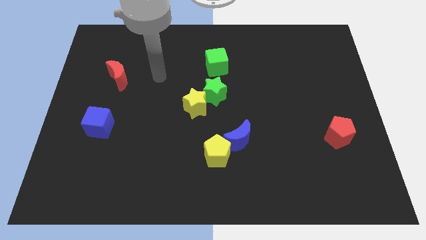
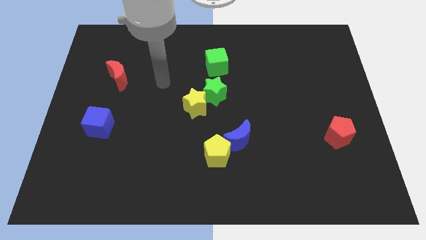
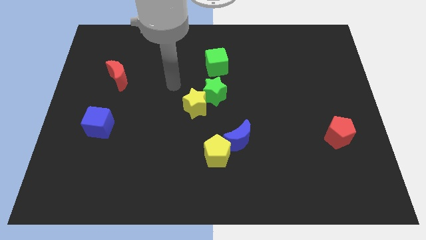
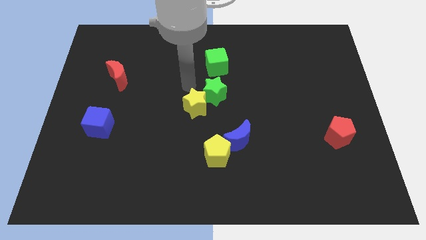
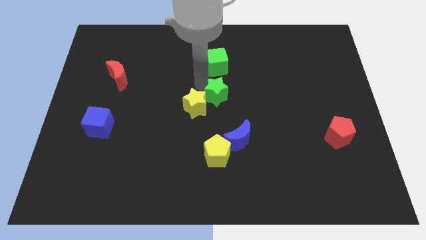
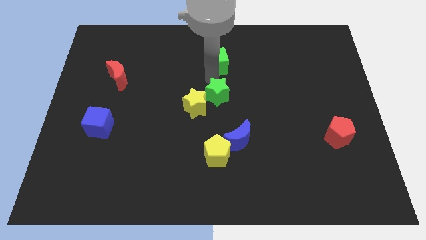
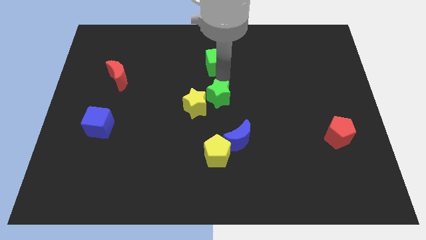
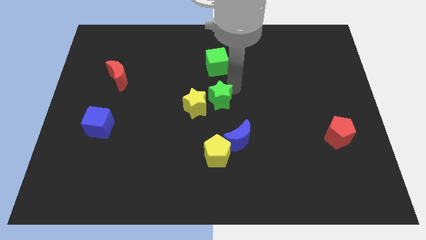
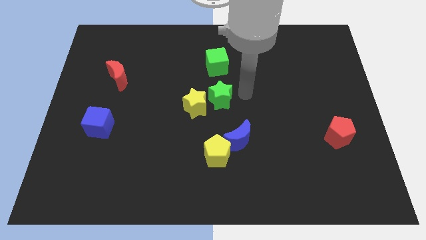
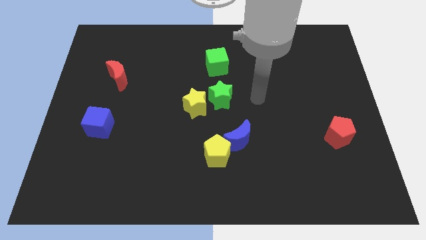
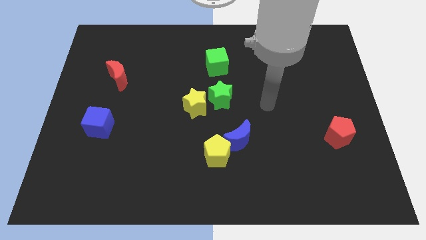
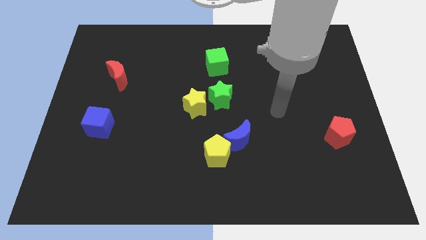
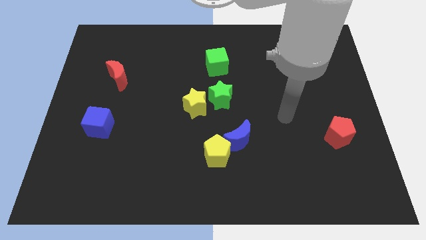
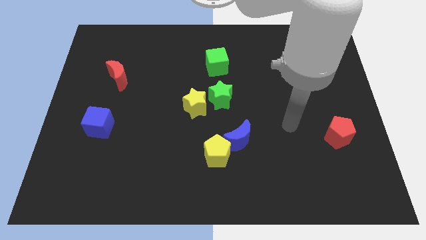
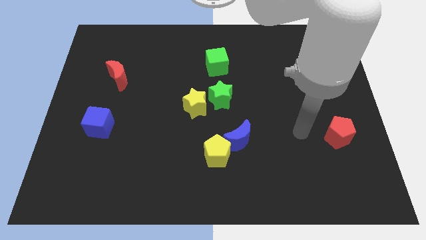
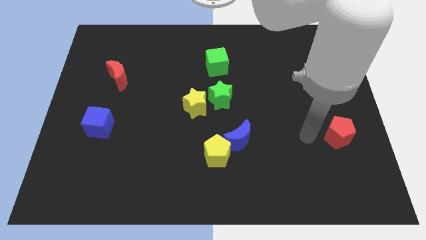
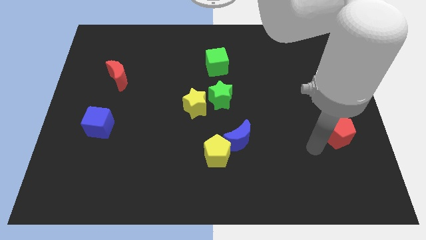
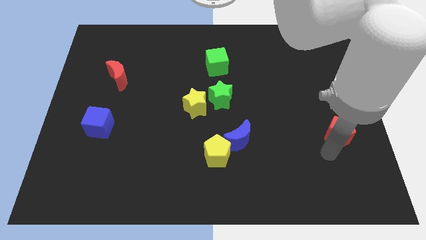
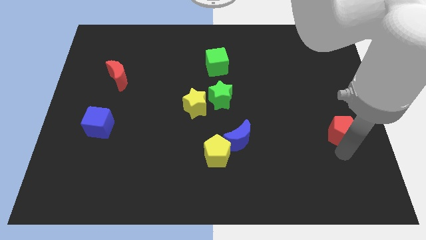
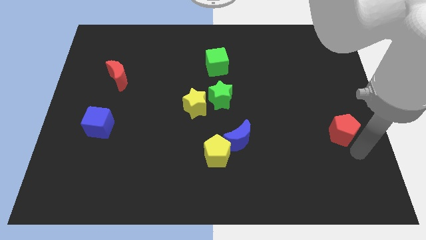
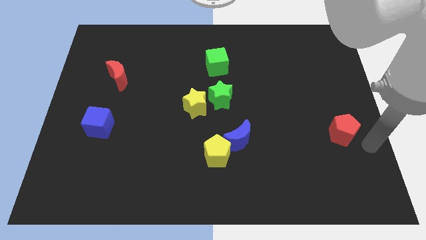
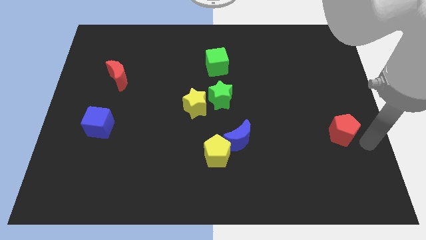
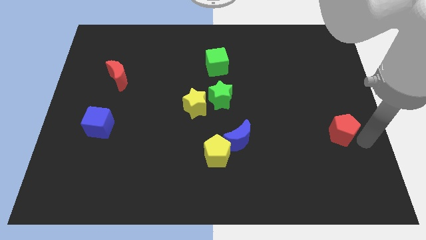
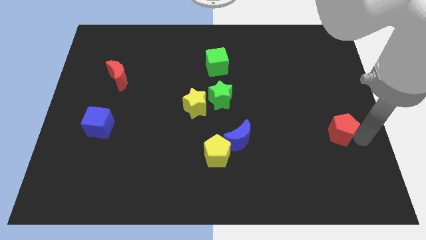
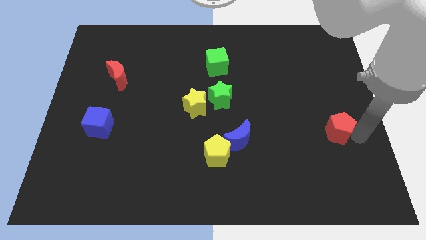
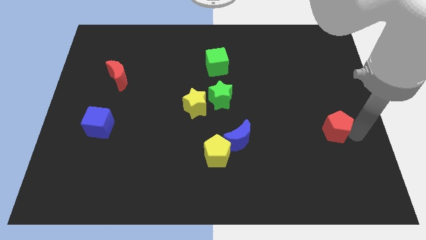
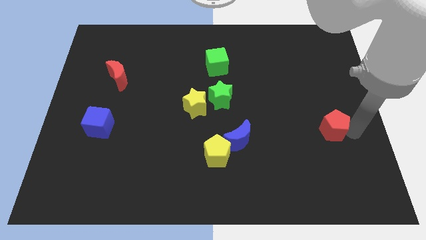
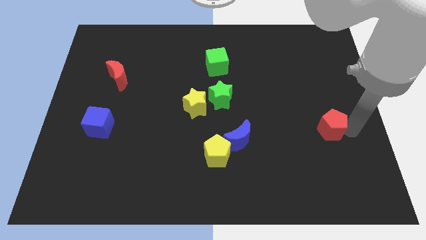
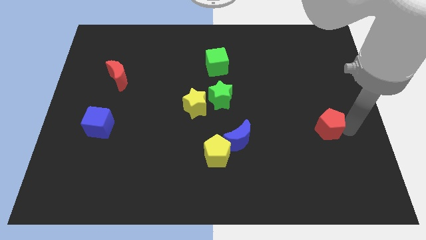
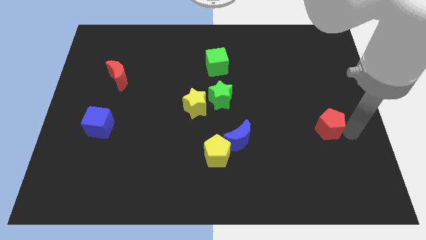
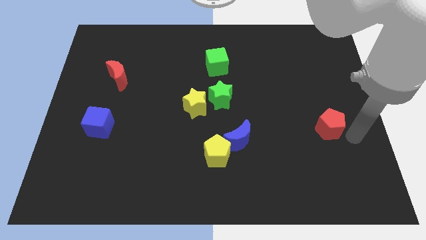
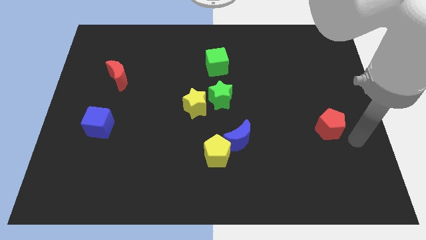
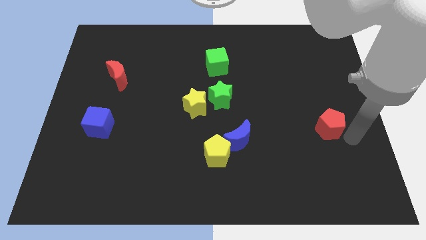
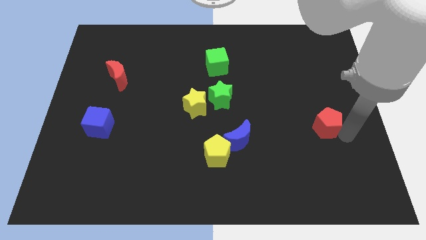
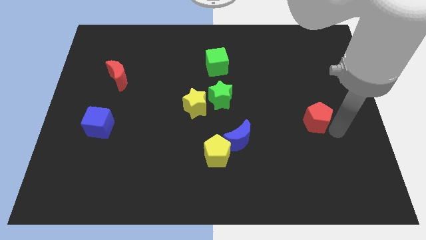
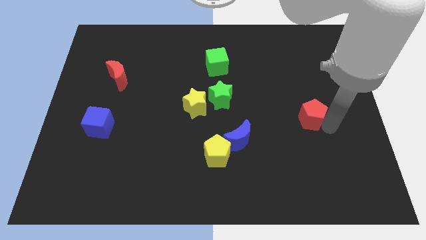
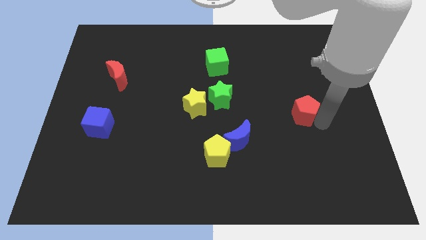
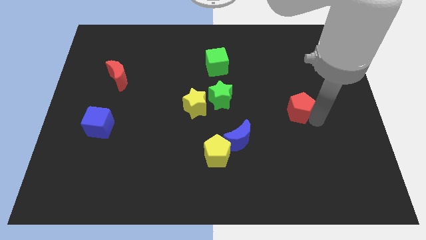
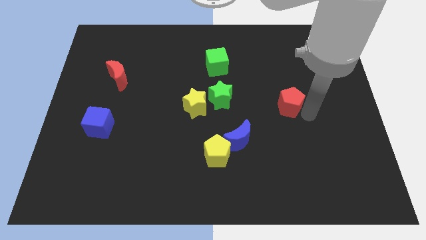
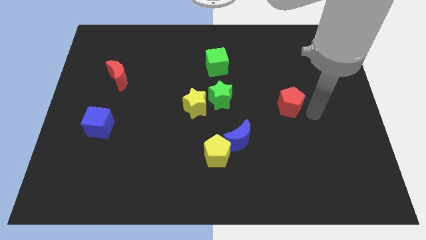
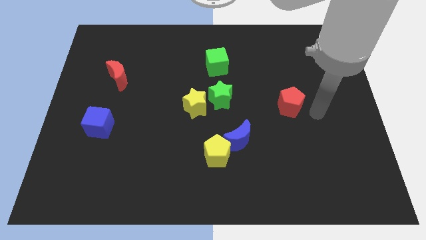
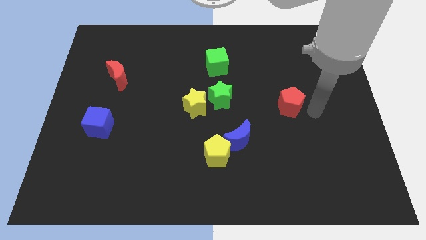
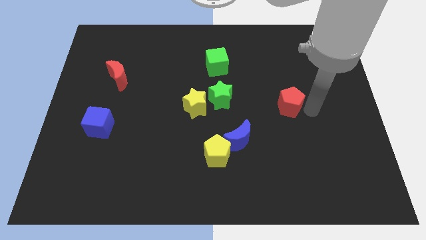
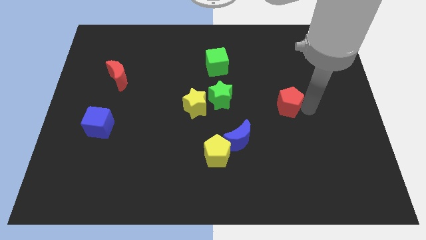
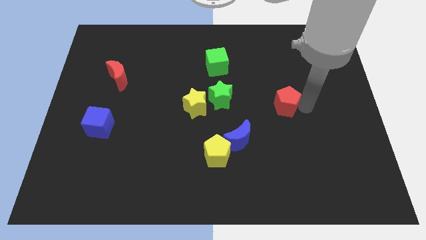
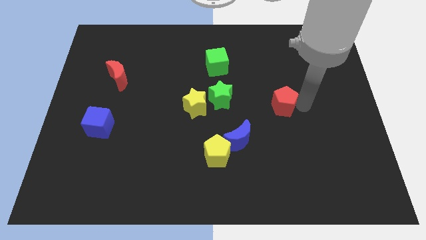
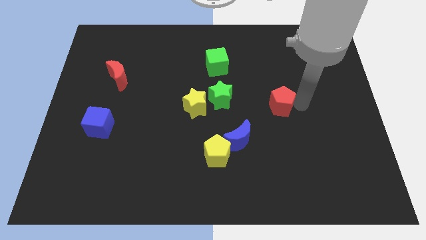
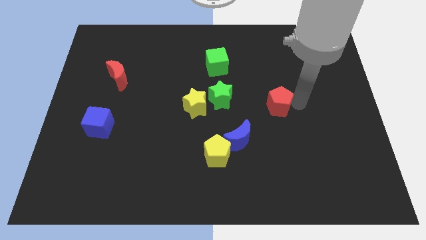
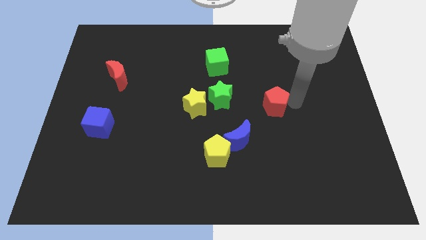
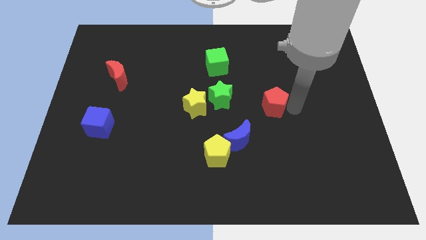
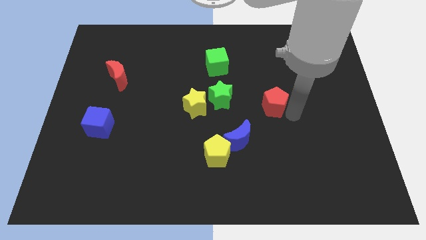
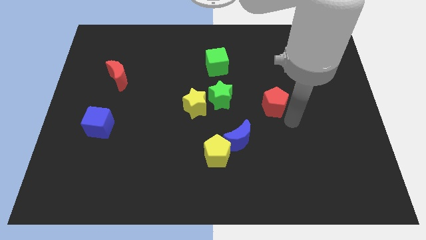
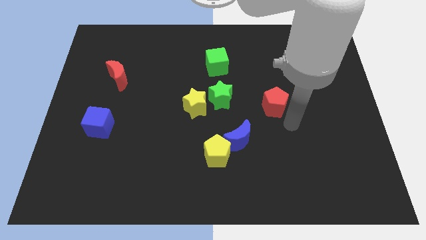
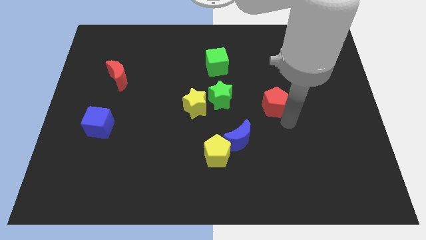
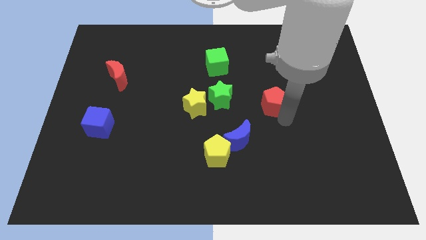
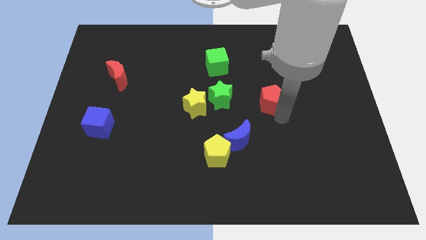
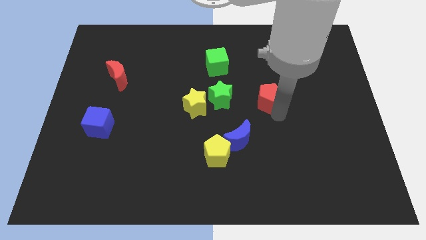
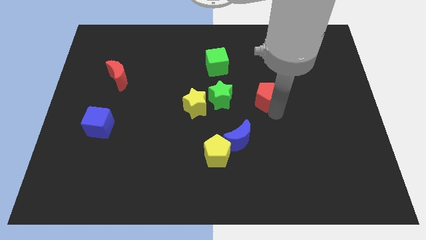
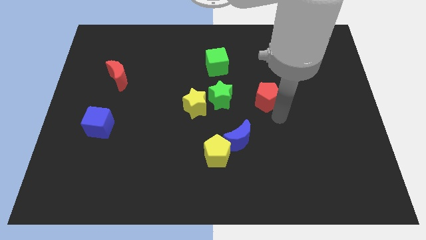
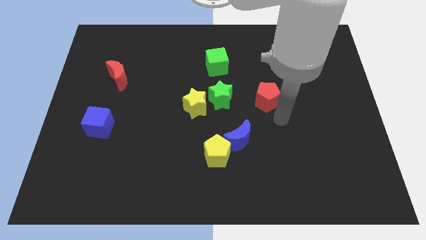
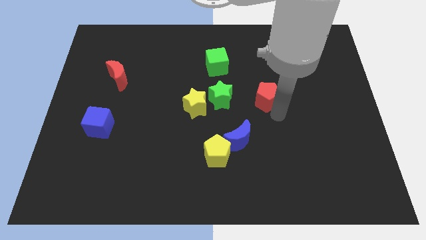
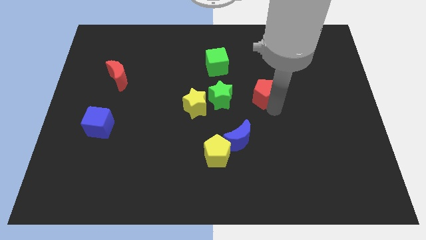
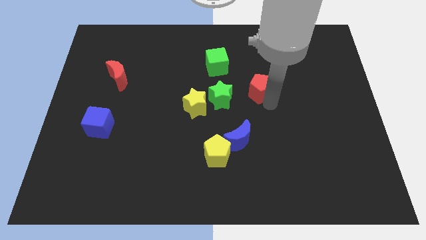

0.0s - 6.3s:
move the red pentagon diagonally up and left

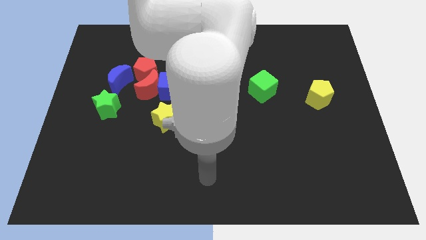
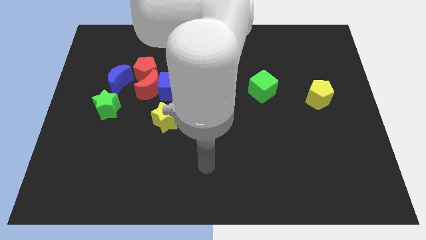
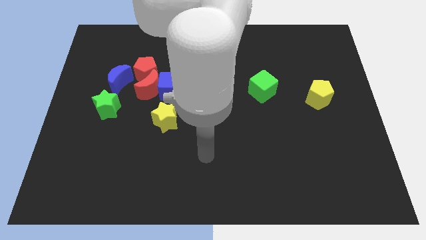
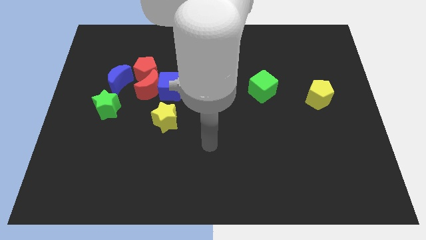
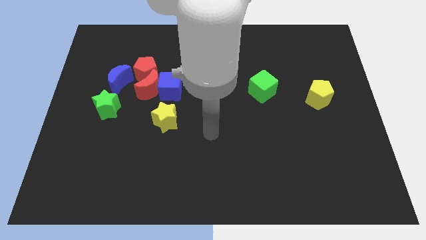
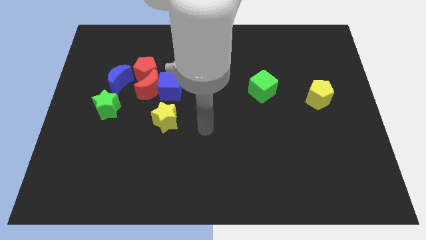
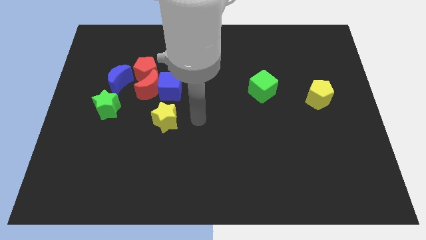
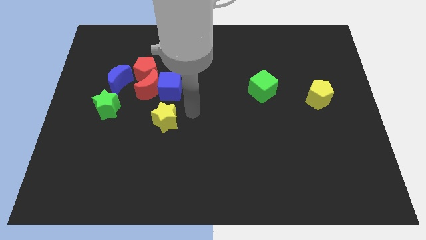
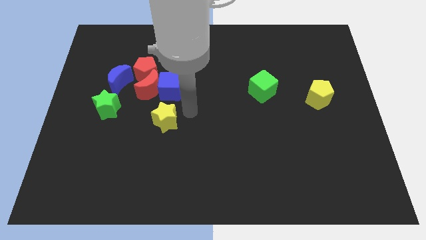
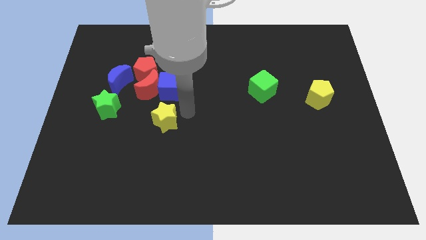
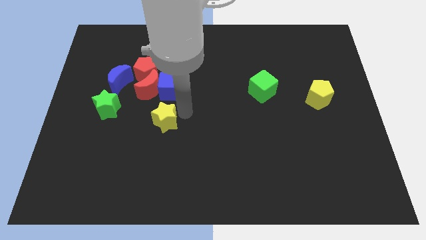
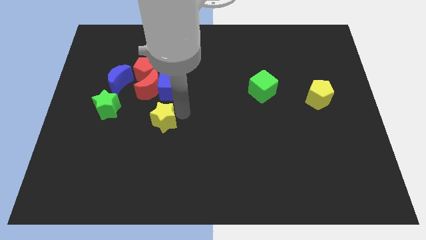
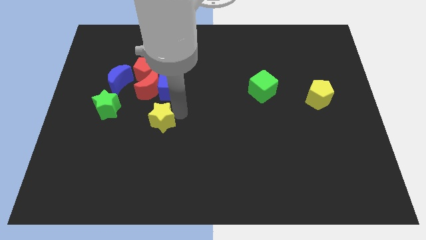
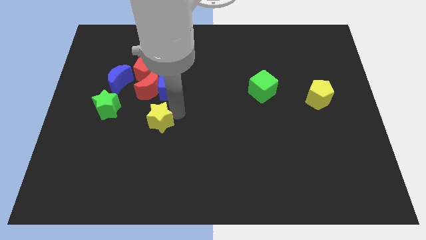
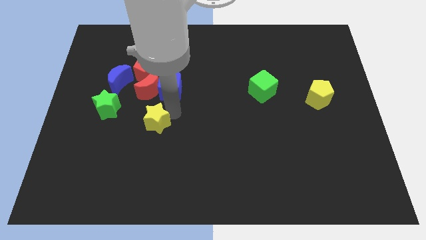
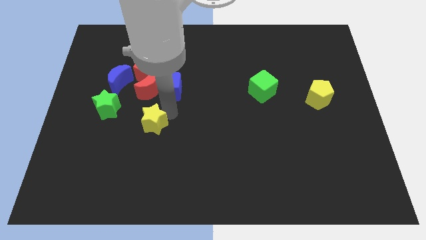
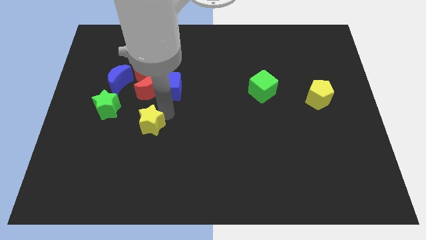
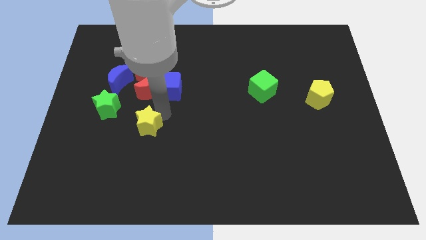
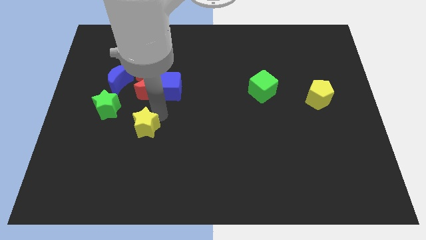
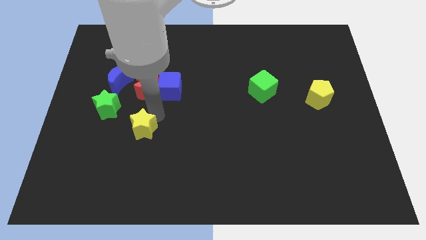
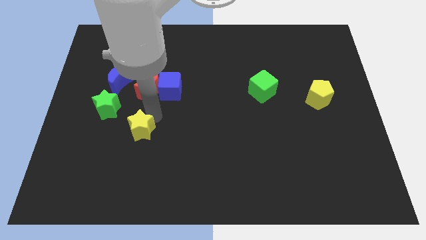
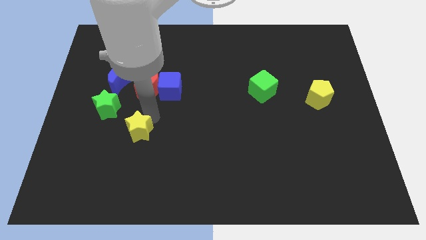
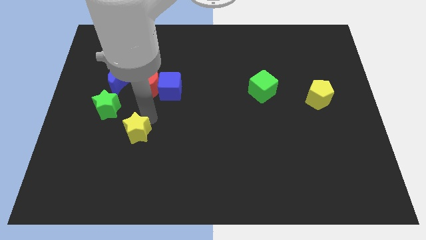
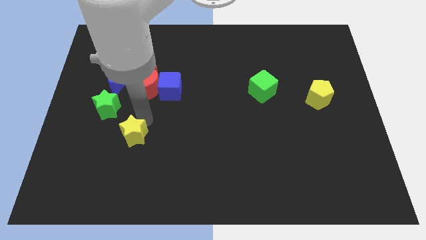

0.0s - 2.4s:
slightly push the yellow star downwards and then to the left
